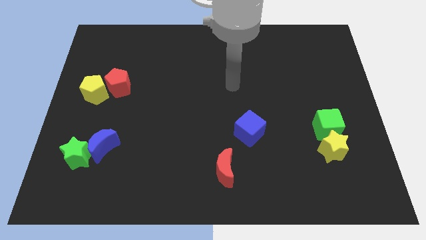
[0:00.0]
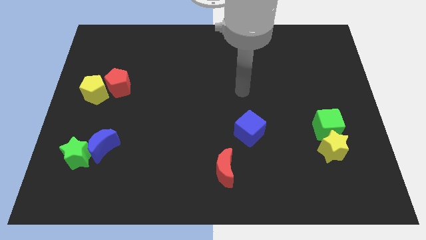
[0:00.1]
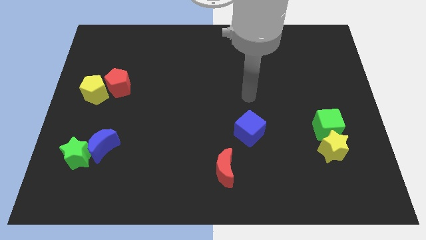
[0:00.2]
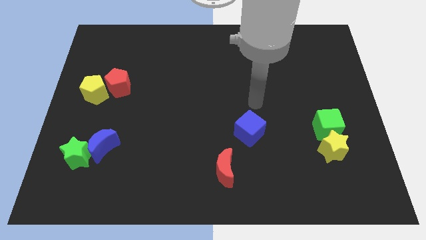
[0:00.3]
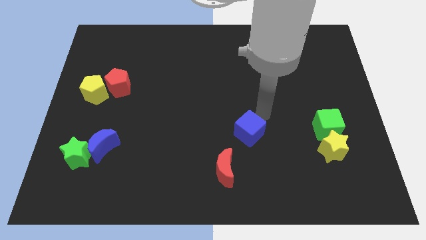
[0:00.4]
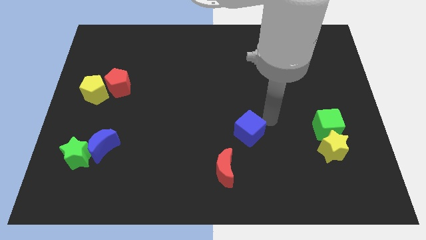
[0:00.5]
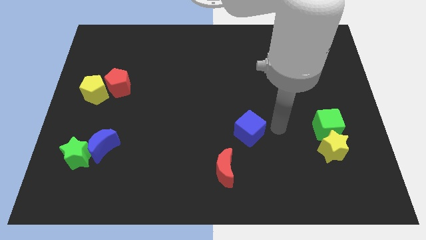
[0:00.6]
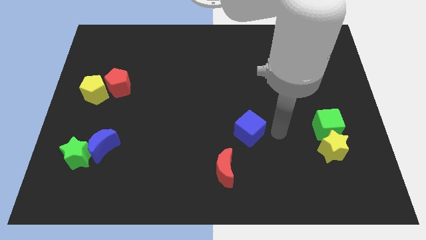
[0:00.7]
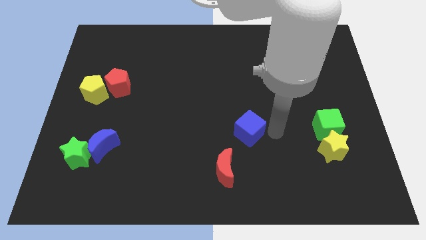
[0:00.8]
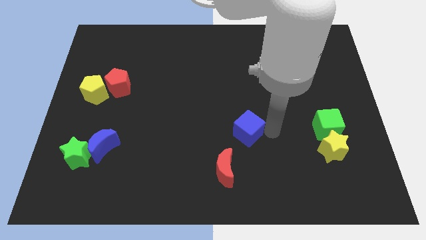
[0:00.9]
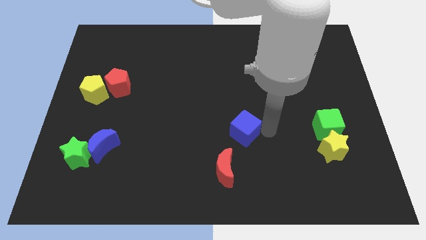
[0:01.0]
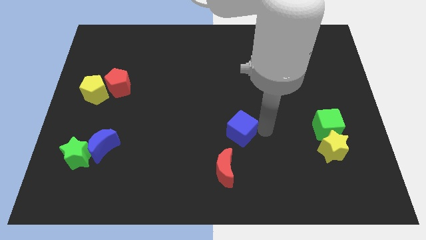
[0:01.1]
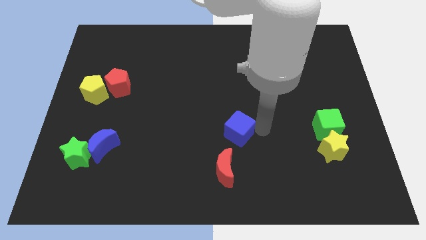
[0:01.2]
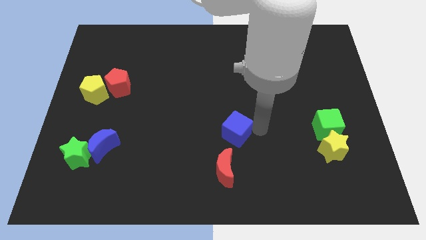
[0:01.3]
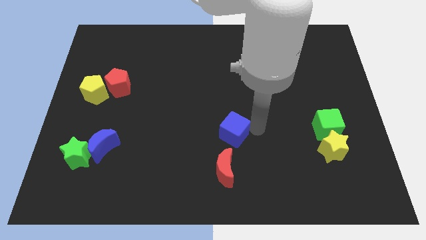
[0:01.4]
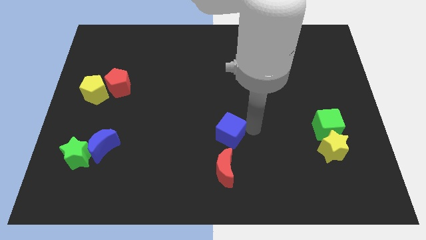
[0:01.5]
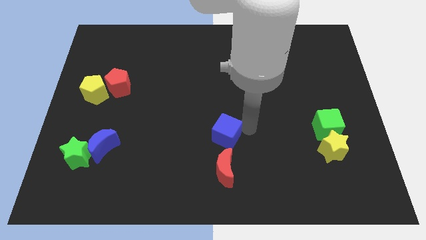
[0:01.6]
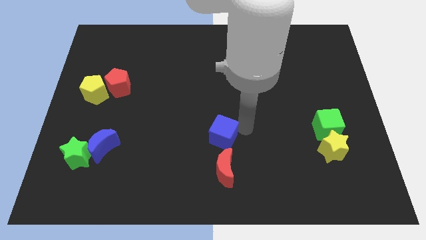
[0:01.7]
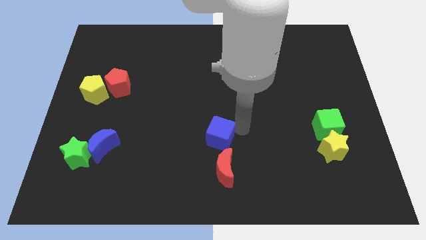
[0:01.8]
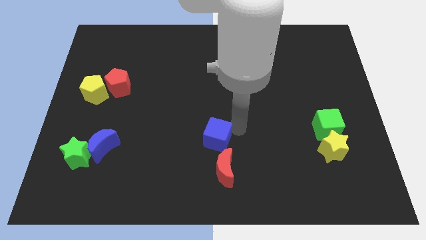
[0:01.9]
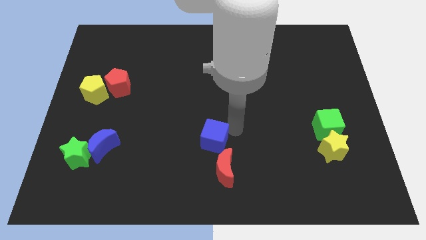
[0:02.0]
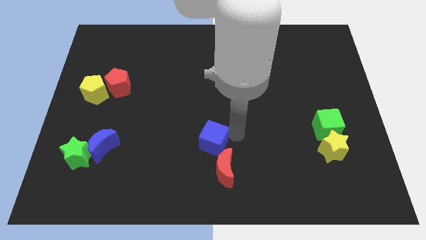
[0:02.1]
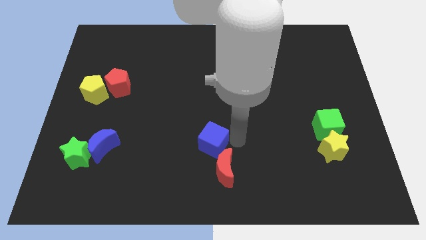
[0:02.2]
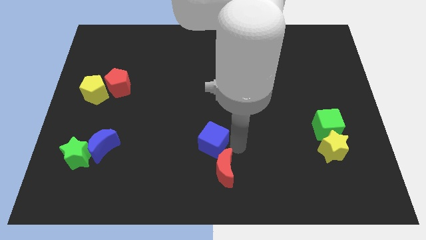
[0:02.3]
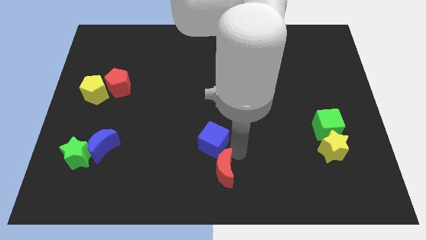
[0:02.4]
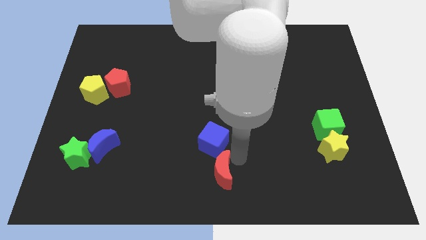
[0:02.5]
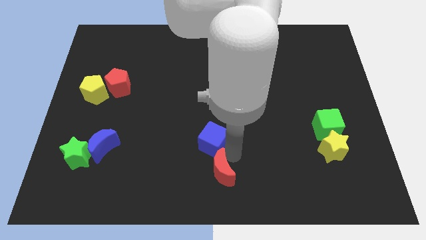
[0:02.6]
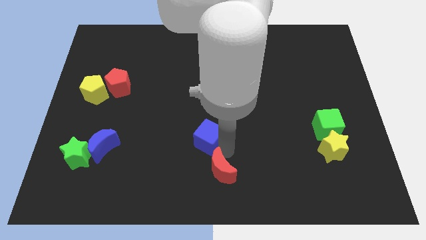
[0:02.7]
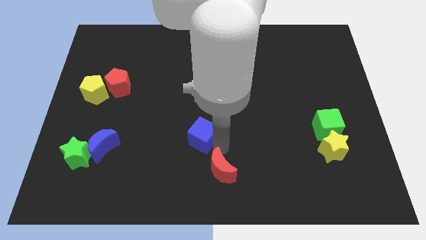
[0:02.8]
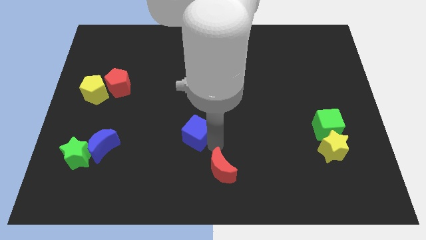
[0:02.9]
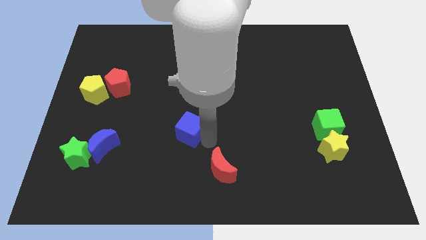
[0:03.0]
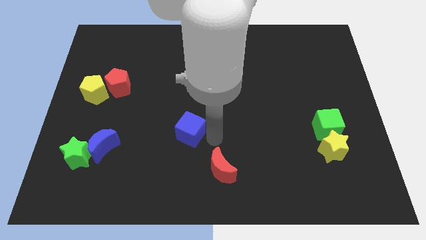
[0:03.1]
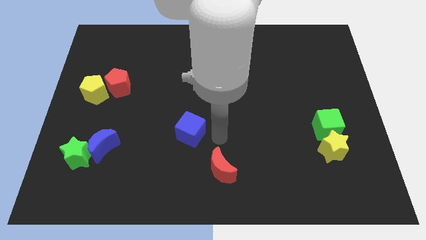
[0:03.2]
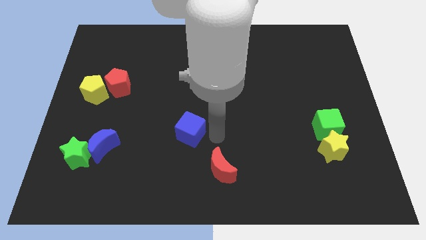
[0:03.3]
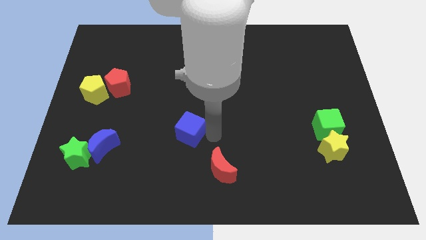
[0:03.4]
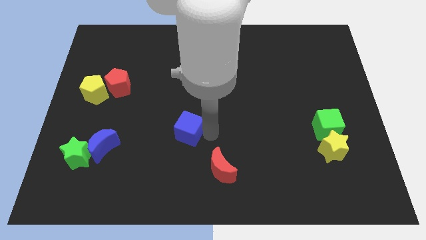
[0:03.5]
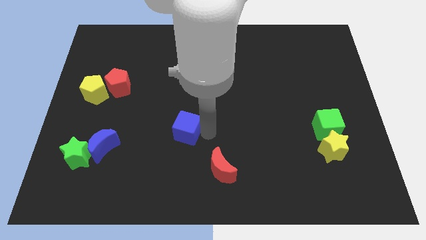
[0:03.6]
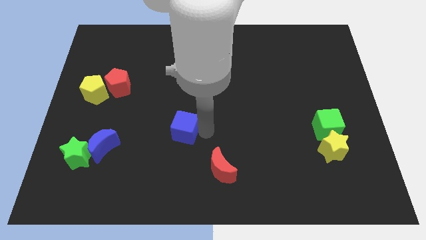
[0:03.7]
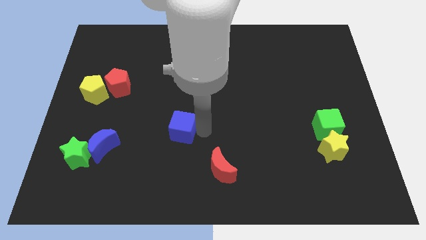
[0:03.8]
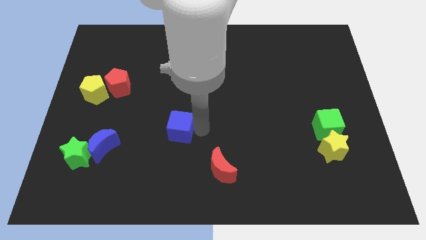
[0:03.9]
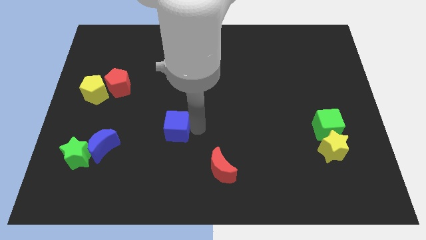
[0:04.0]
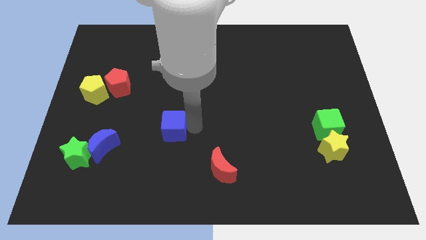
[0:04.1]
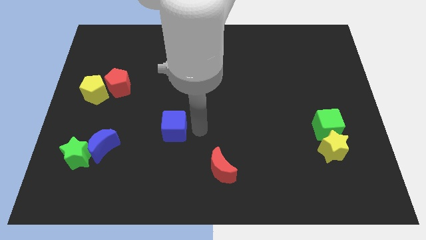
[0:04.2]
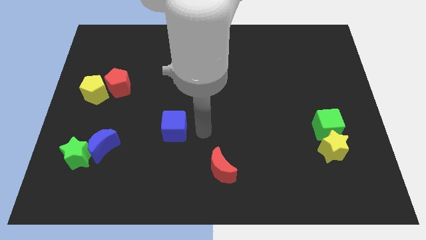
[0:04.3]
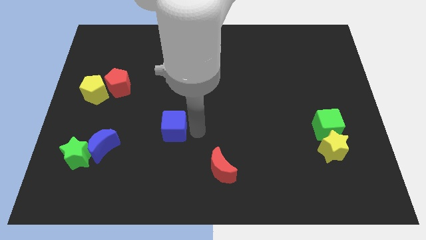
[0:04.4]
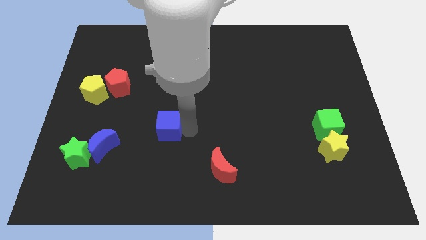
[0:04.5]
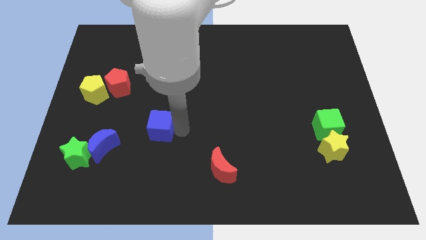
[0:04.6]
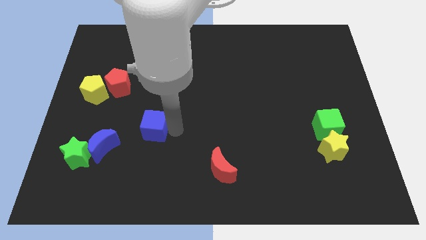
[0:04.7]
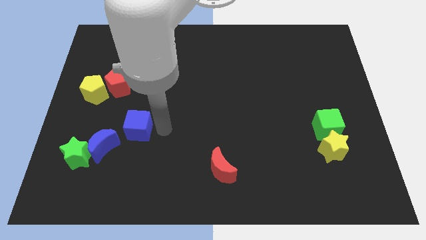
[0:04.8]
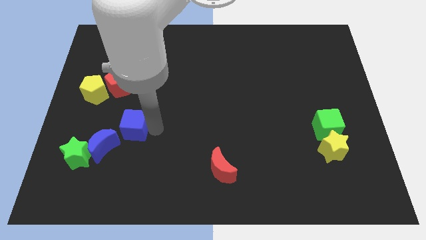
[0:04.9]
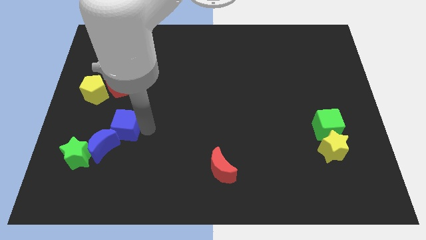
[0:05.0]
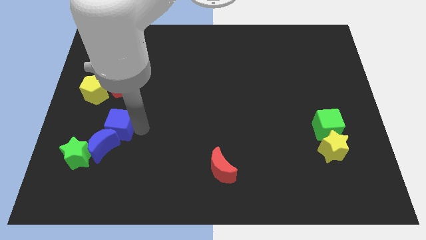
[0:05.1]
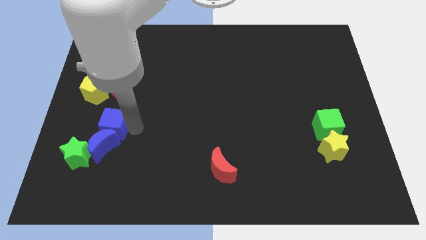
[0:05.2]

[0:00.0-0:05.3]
put the blue cube to the top left of the blue moon

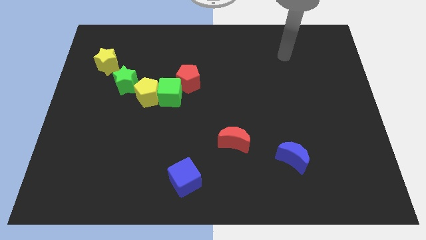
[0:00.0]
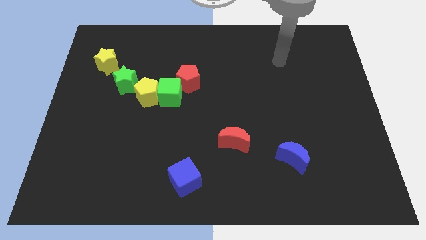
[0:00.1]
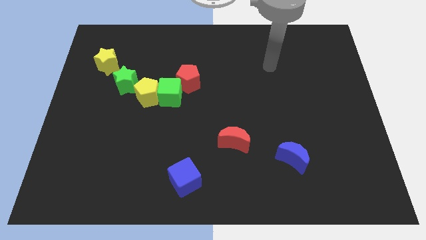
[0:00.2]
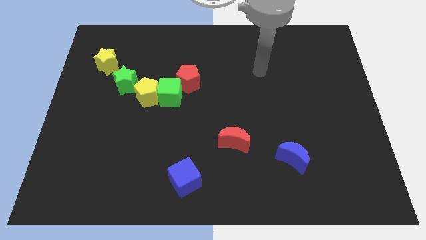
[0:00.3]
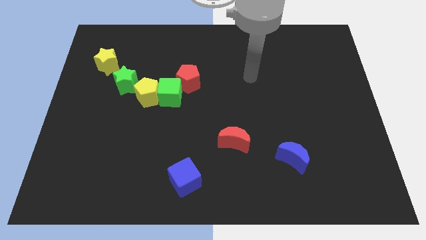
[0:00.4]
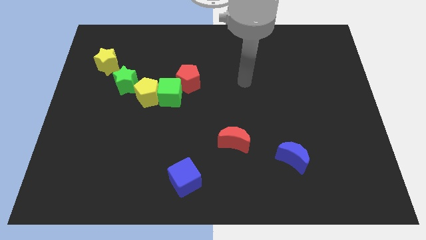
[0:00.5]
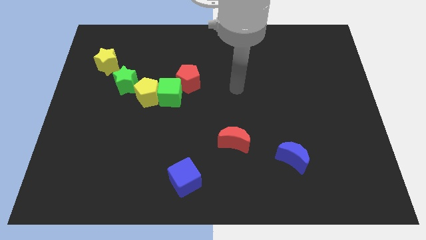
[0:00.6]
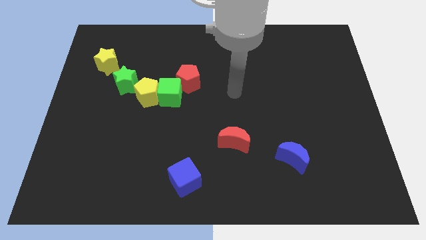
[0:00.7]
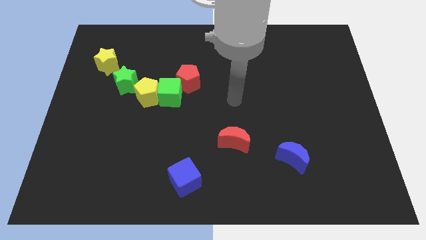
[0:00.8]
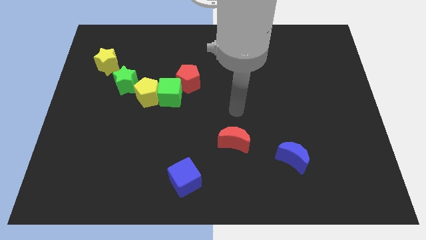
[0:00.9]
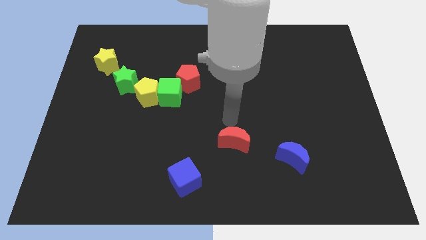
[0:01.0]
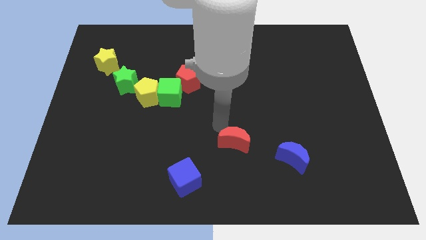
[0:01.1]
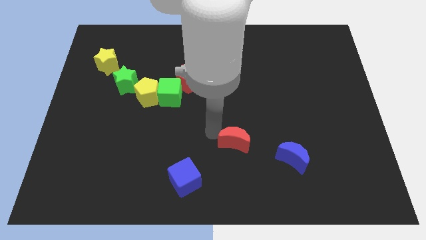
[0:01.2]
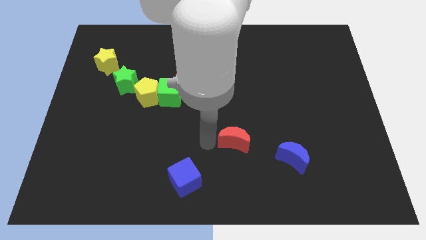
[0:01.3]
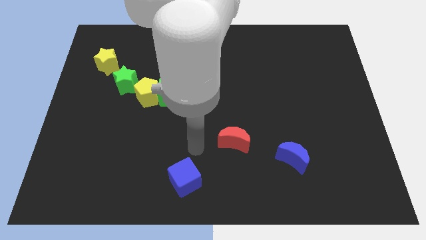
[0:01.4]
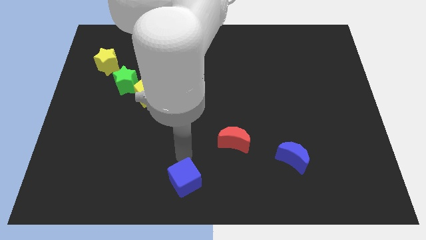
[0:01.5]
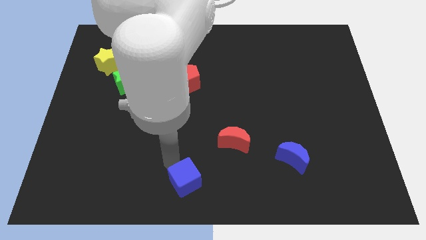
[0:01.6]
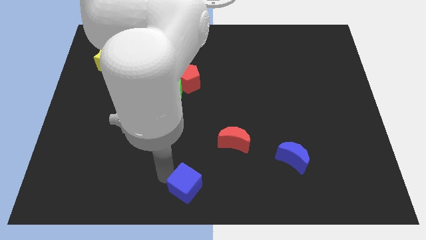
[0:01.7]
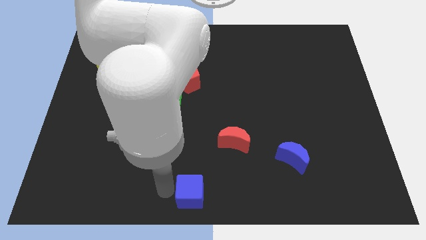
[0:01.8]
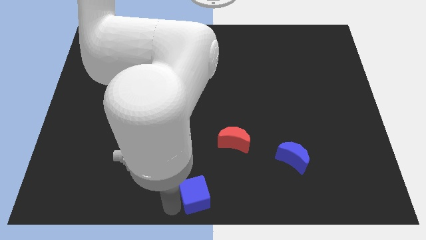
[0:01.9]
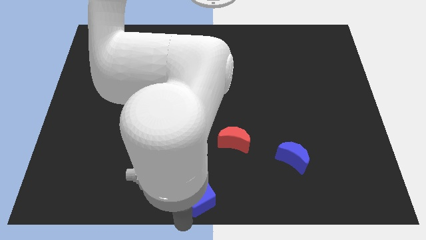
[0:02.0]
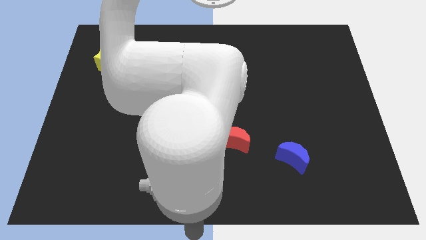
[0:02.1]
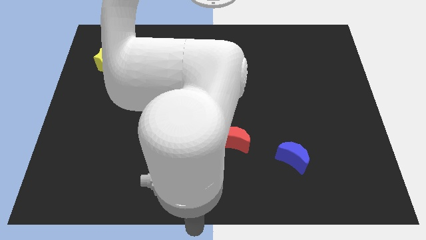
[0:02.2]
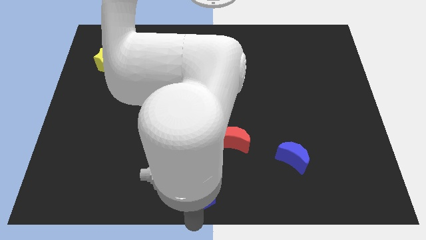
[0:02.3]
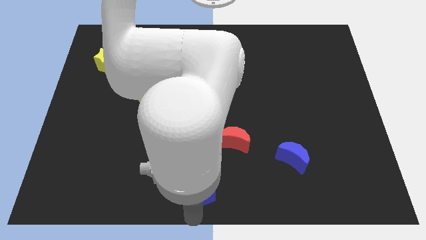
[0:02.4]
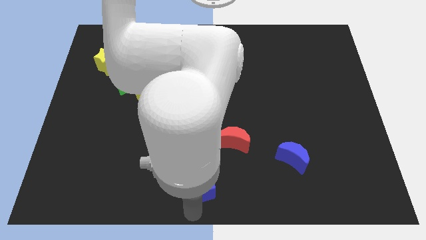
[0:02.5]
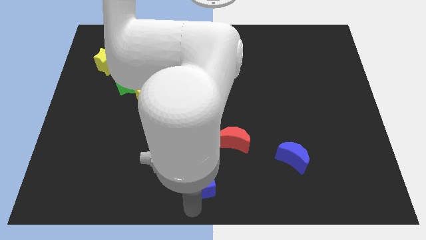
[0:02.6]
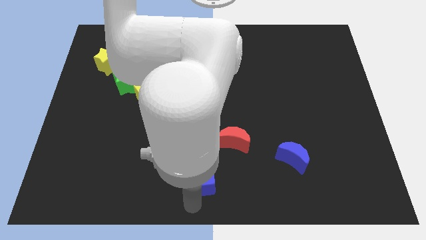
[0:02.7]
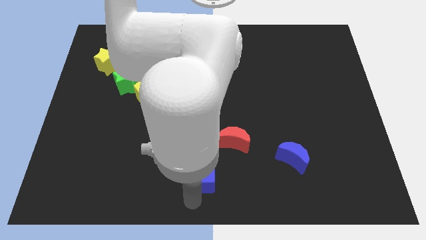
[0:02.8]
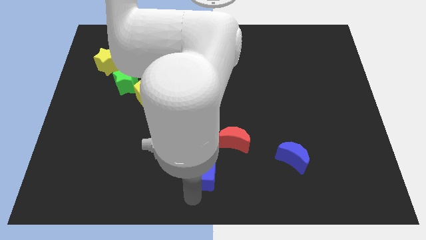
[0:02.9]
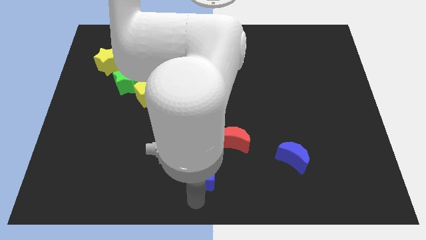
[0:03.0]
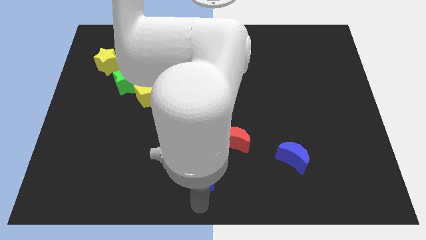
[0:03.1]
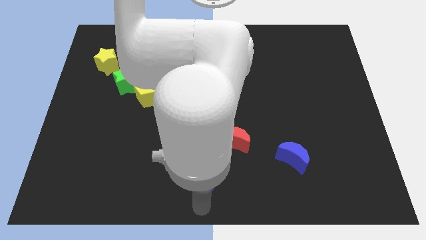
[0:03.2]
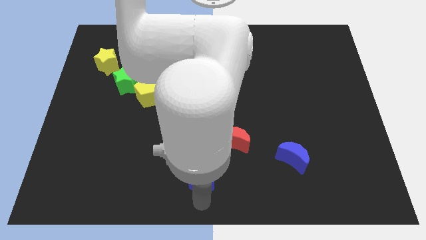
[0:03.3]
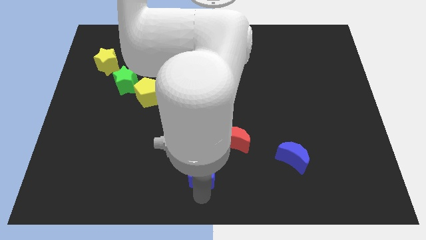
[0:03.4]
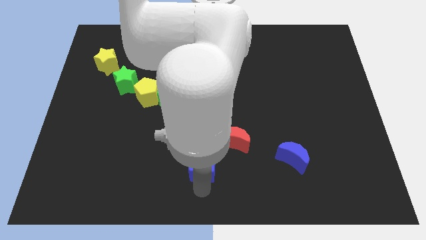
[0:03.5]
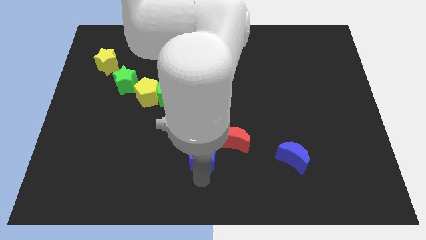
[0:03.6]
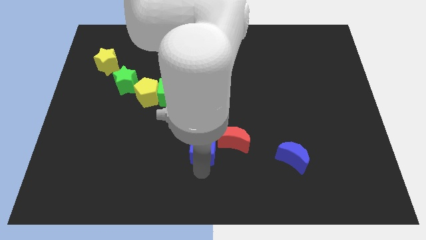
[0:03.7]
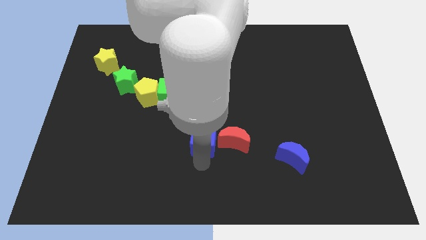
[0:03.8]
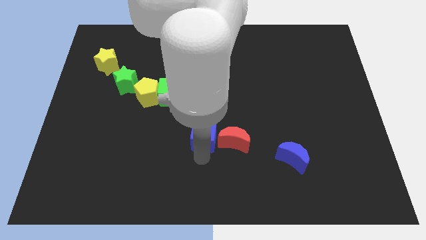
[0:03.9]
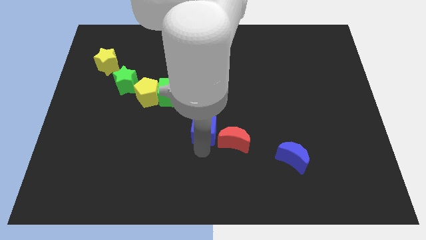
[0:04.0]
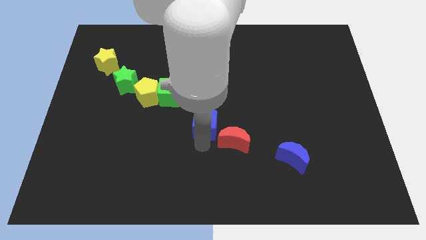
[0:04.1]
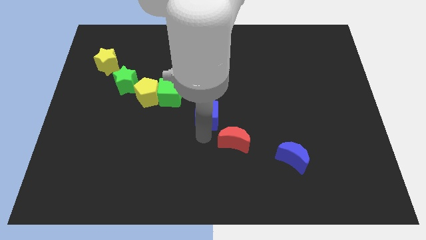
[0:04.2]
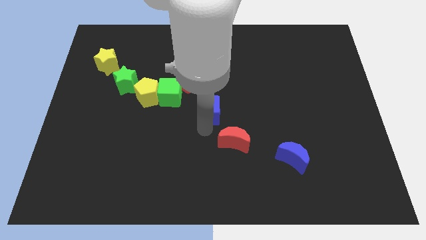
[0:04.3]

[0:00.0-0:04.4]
push the blue cube to the bottom right of the red pentagon
